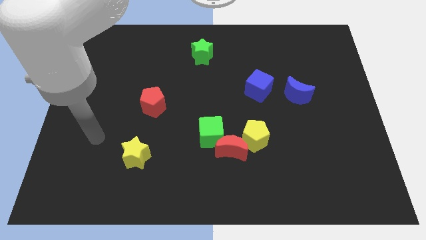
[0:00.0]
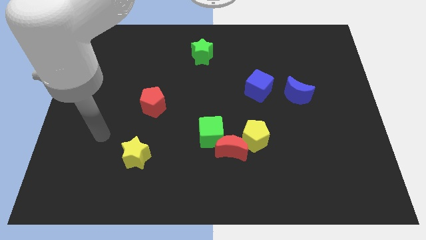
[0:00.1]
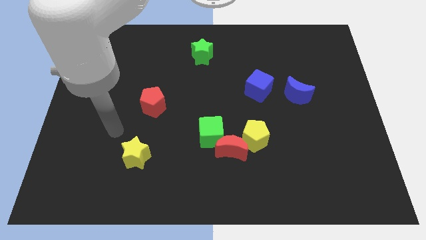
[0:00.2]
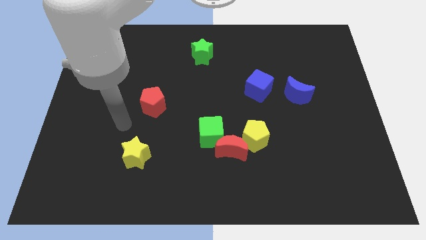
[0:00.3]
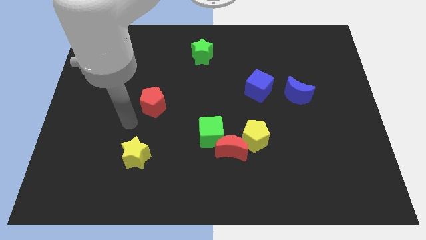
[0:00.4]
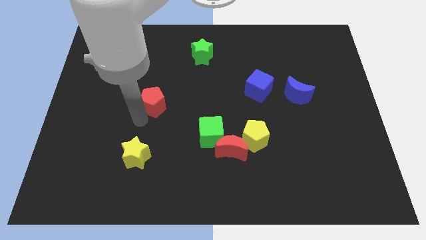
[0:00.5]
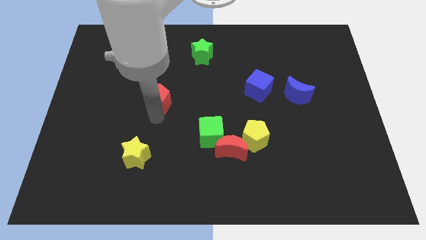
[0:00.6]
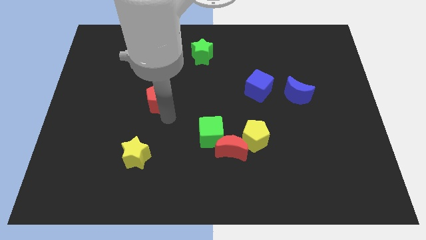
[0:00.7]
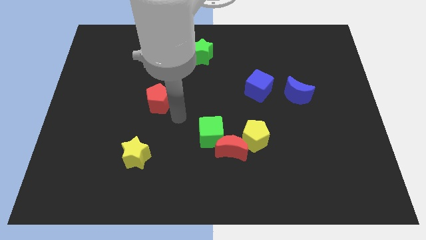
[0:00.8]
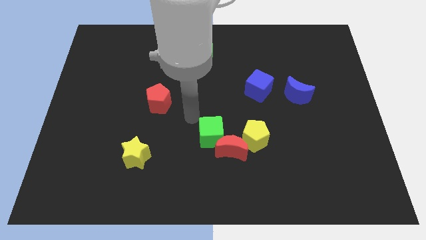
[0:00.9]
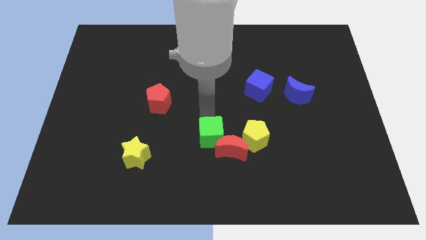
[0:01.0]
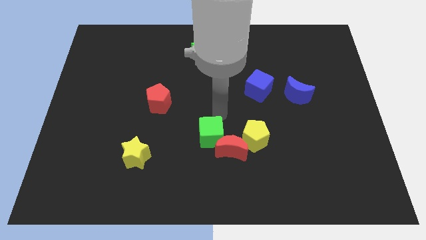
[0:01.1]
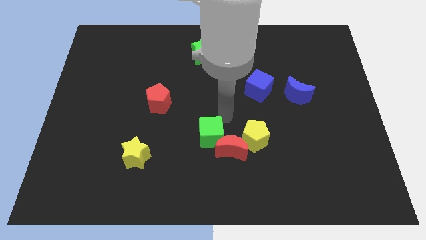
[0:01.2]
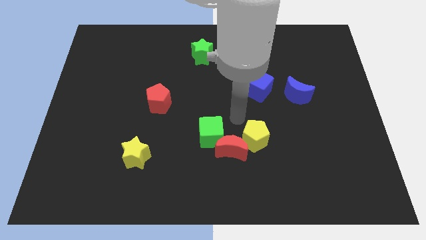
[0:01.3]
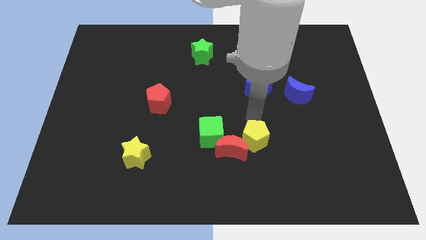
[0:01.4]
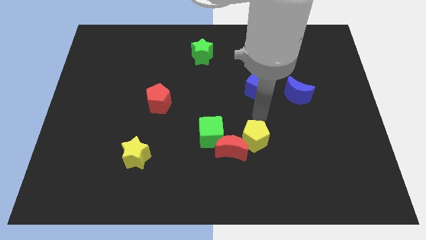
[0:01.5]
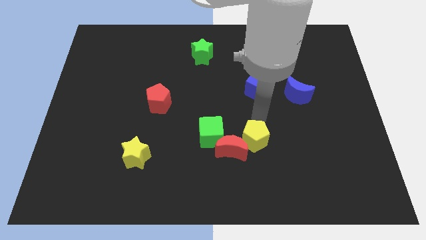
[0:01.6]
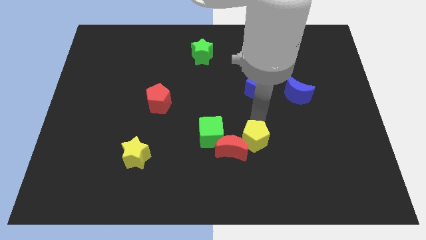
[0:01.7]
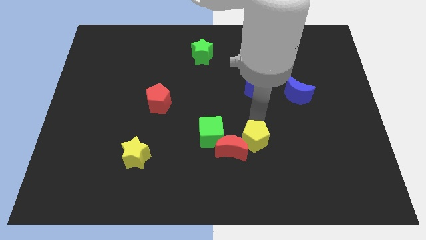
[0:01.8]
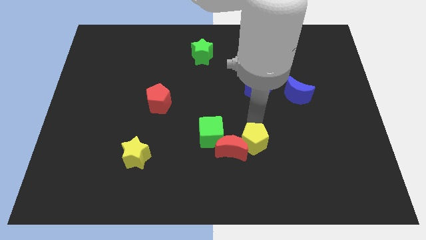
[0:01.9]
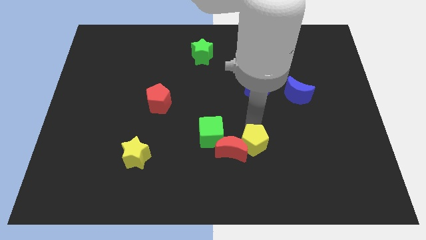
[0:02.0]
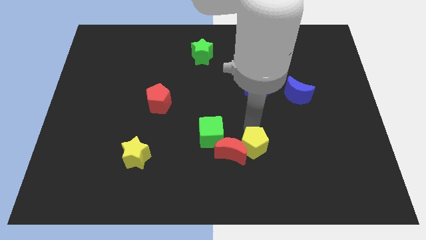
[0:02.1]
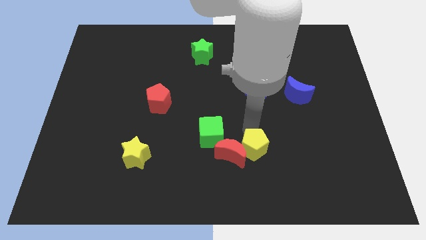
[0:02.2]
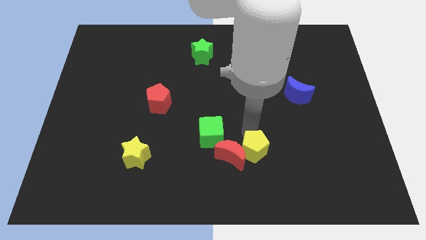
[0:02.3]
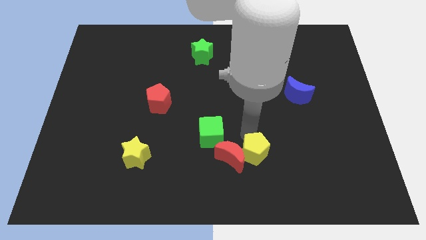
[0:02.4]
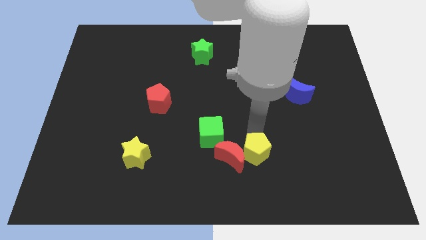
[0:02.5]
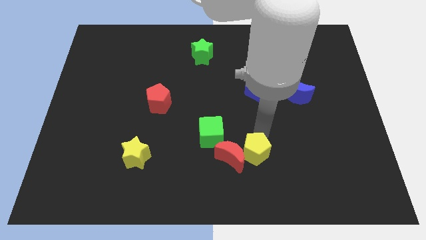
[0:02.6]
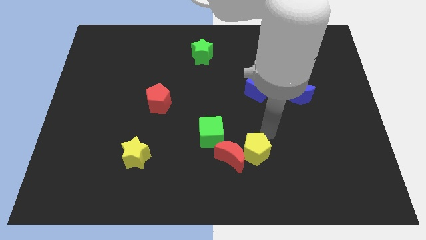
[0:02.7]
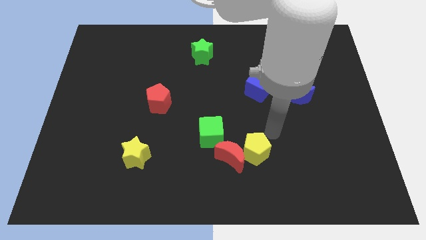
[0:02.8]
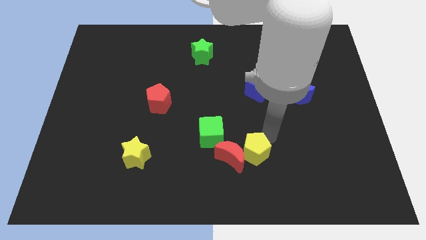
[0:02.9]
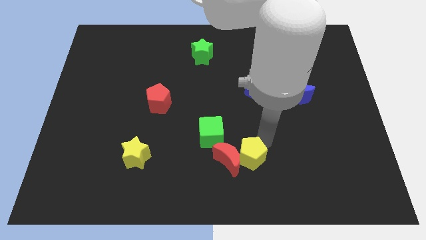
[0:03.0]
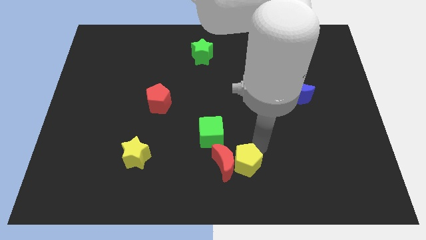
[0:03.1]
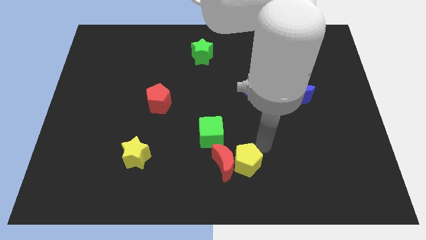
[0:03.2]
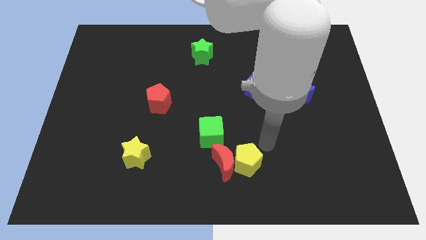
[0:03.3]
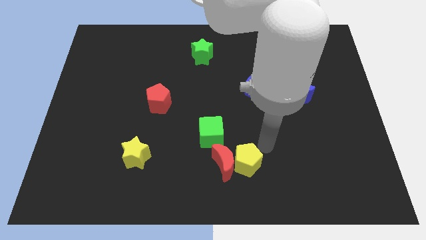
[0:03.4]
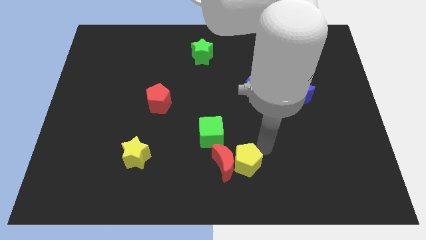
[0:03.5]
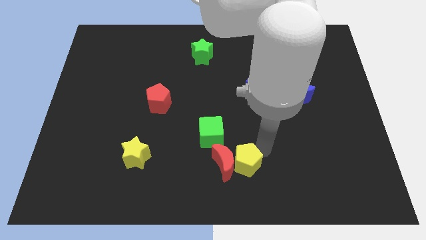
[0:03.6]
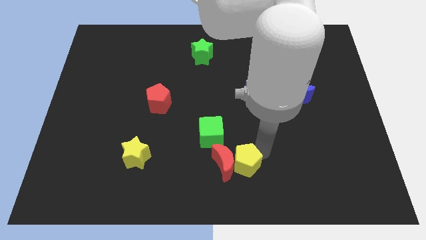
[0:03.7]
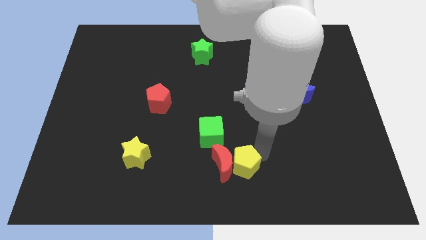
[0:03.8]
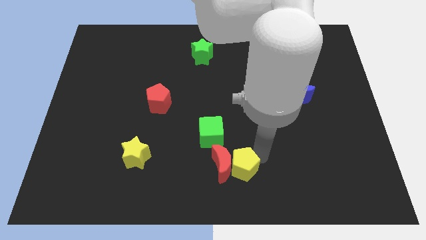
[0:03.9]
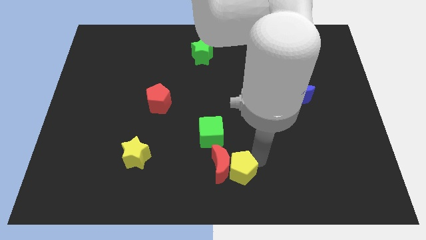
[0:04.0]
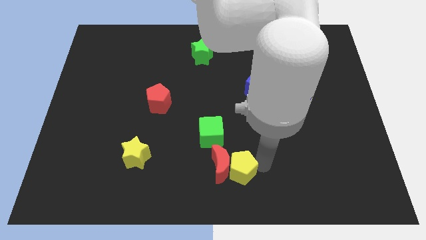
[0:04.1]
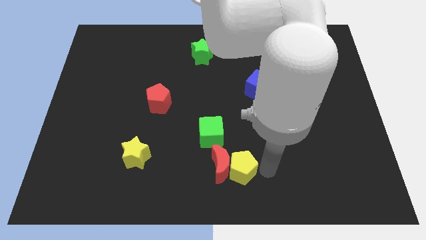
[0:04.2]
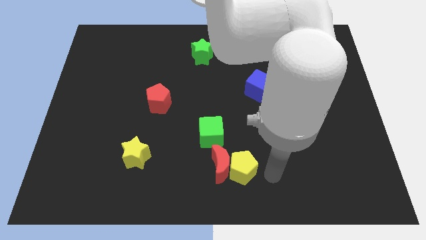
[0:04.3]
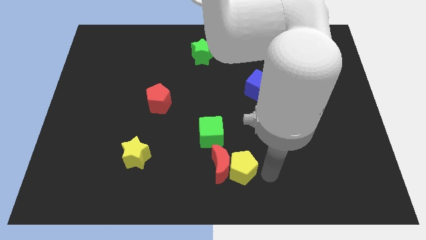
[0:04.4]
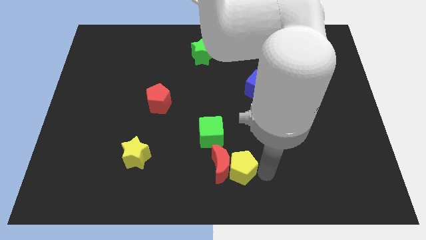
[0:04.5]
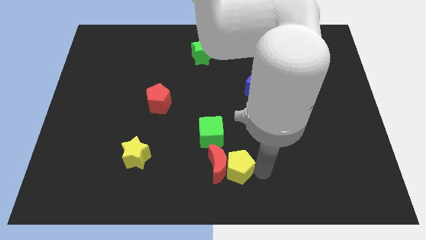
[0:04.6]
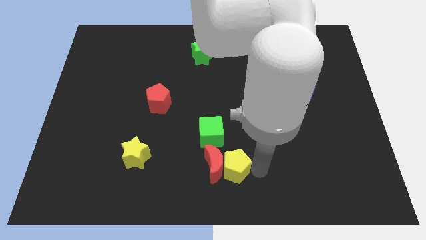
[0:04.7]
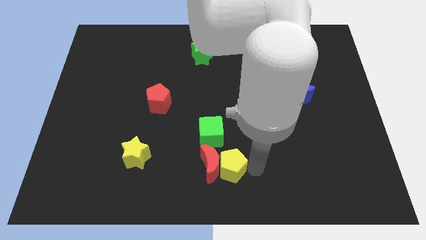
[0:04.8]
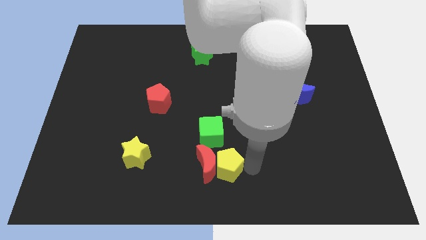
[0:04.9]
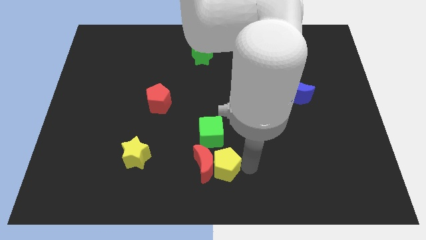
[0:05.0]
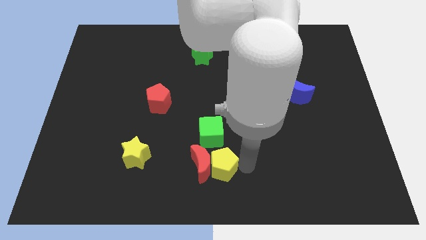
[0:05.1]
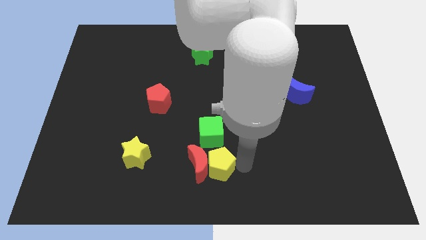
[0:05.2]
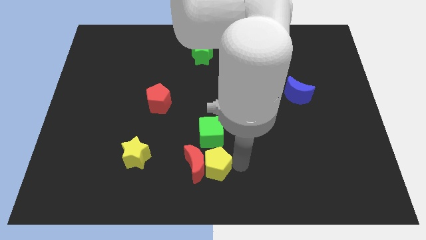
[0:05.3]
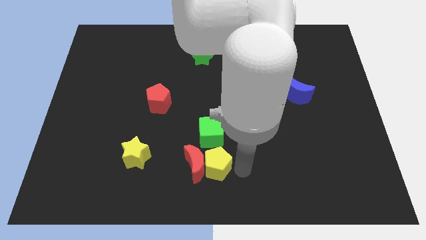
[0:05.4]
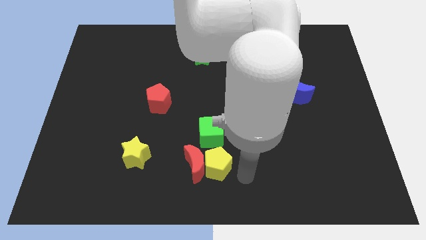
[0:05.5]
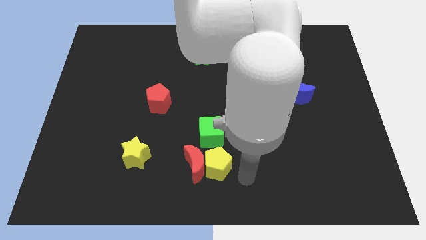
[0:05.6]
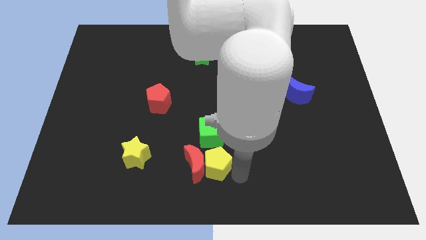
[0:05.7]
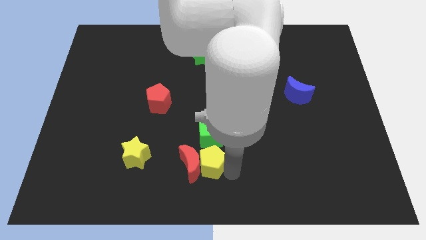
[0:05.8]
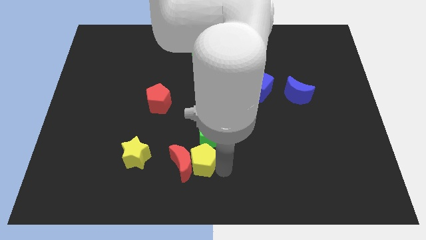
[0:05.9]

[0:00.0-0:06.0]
push the yellow pentagon diagonally down and to the left of the green cube

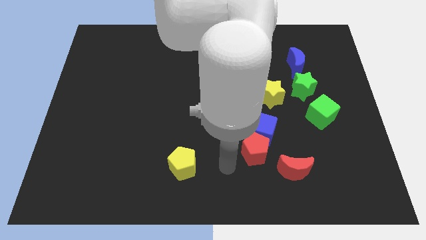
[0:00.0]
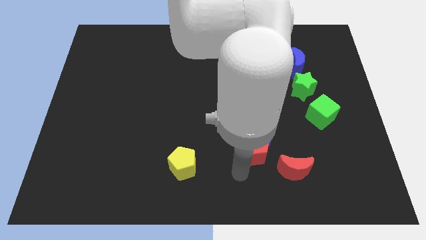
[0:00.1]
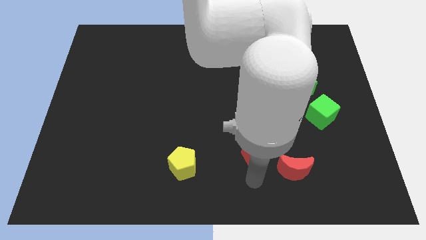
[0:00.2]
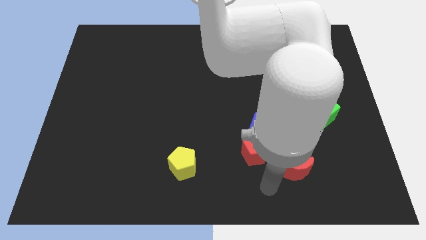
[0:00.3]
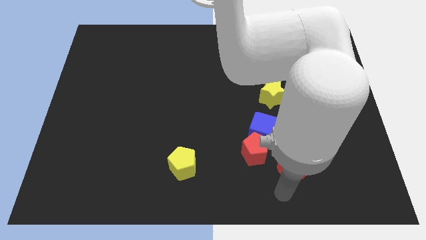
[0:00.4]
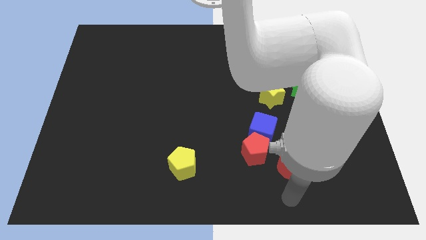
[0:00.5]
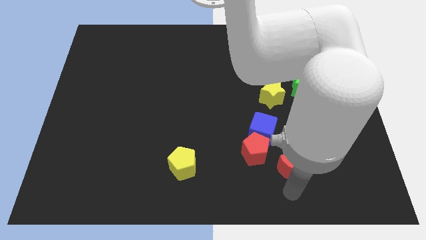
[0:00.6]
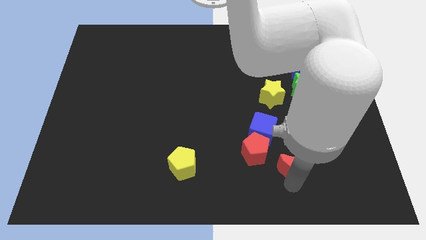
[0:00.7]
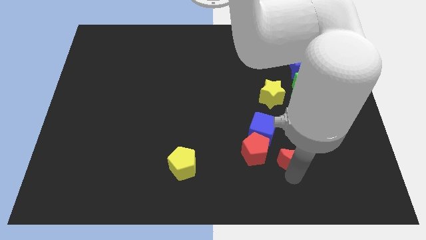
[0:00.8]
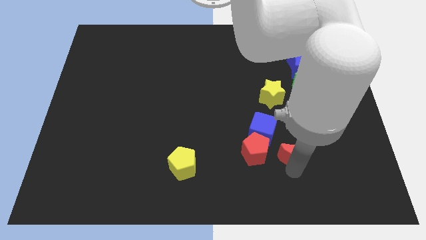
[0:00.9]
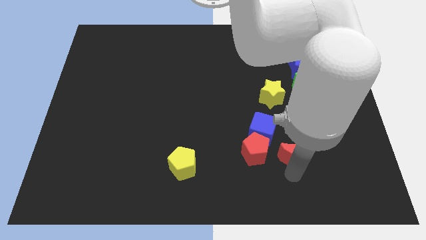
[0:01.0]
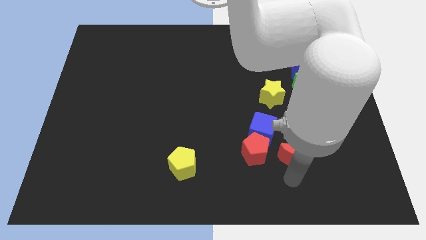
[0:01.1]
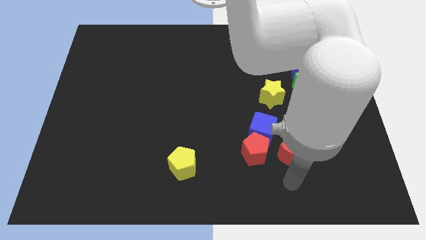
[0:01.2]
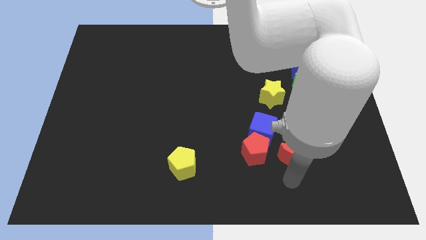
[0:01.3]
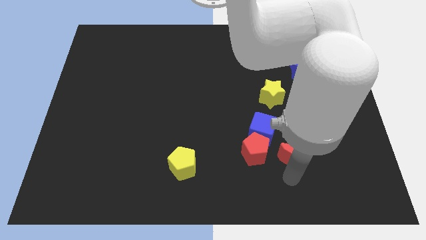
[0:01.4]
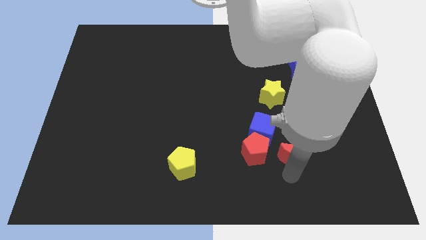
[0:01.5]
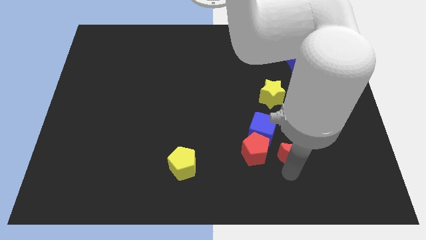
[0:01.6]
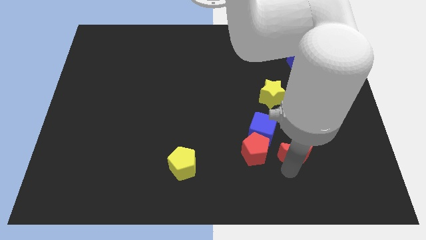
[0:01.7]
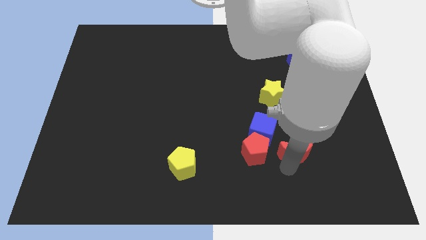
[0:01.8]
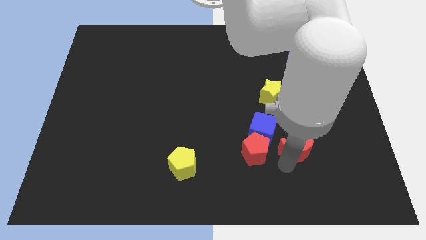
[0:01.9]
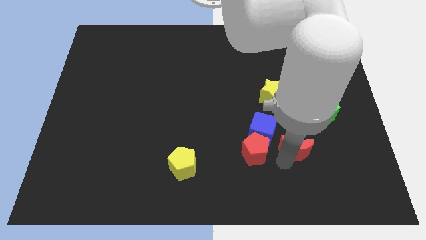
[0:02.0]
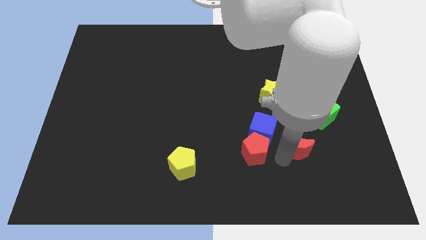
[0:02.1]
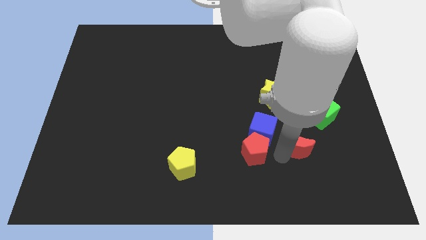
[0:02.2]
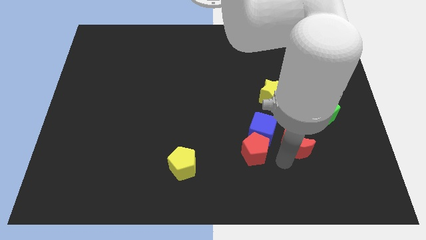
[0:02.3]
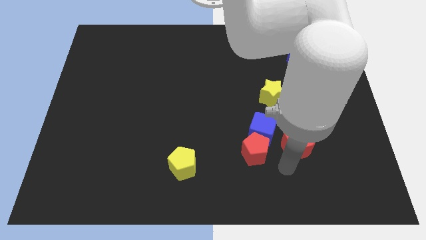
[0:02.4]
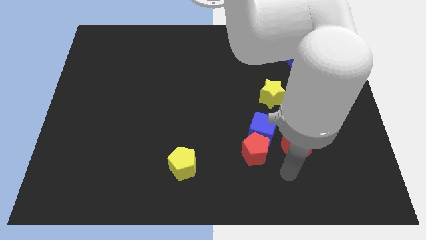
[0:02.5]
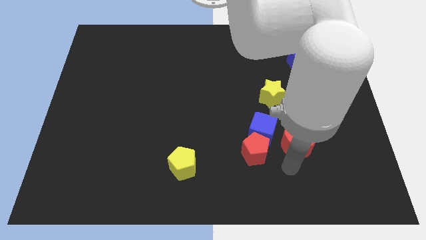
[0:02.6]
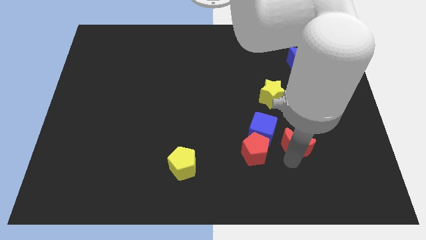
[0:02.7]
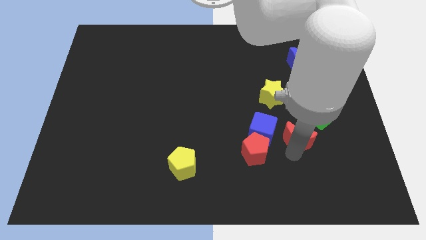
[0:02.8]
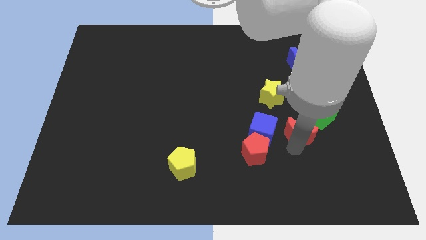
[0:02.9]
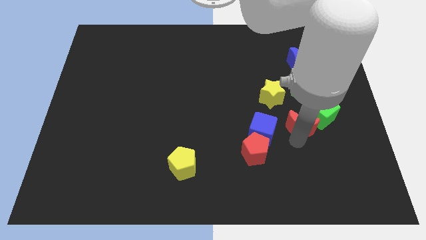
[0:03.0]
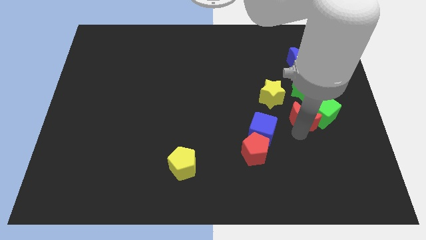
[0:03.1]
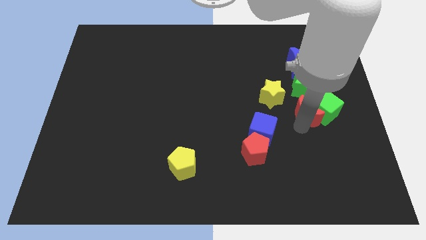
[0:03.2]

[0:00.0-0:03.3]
push the red moon to the bottom side of the blue moon
